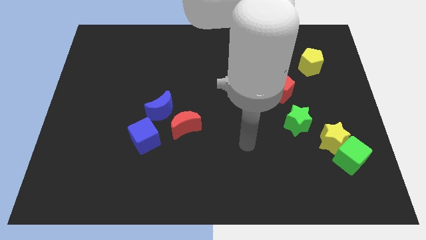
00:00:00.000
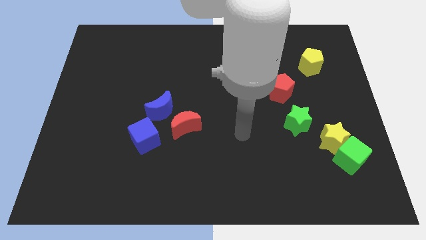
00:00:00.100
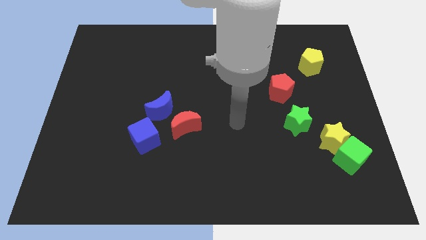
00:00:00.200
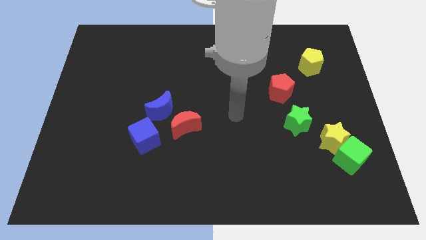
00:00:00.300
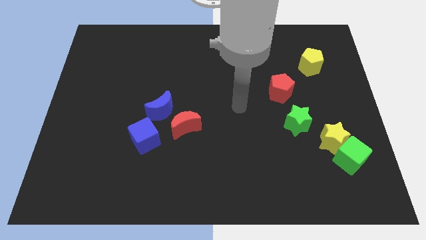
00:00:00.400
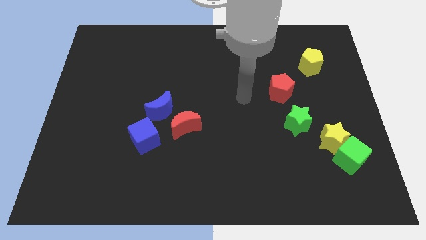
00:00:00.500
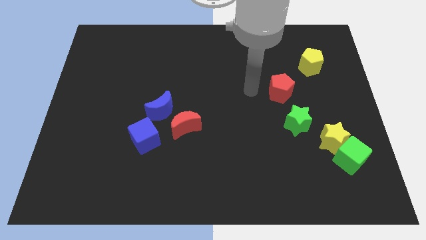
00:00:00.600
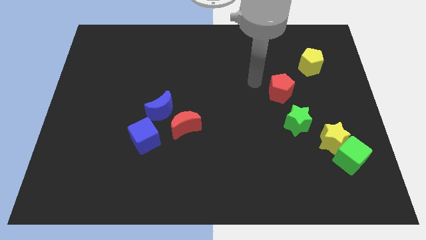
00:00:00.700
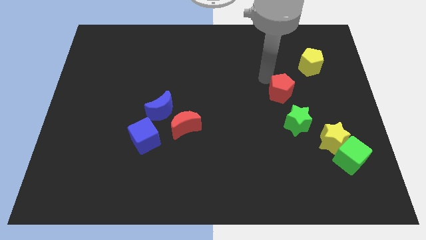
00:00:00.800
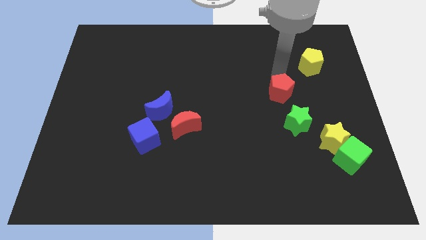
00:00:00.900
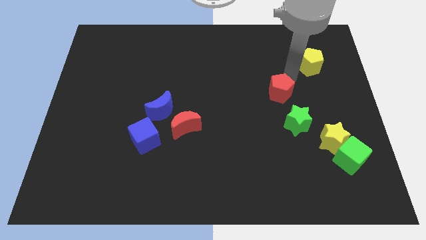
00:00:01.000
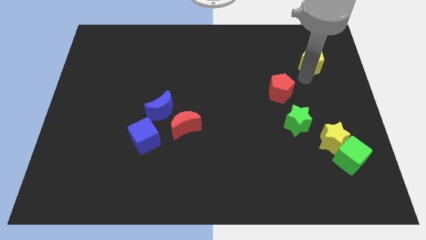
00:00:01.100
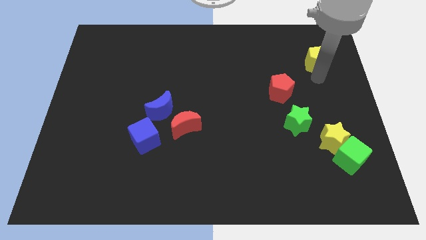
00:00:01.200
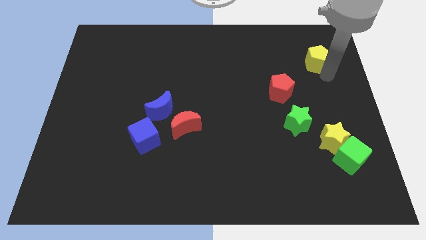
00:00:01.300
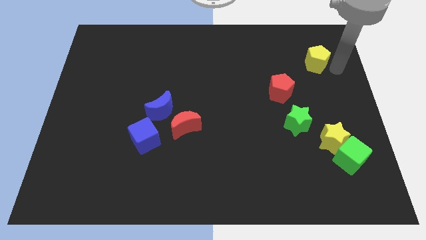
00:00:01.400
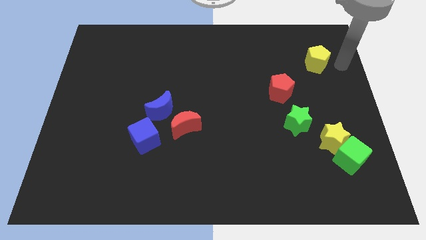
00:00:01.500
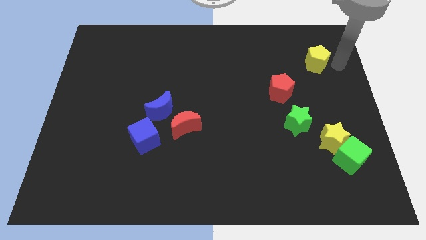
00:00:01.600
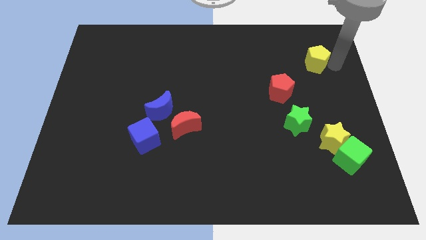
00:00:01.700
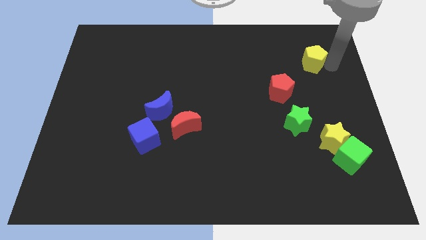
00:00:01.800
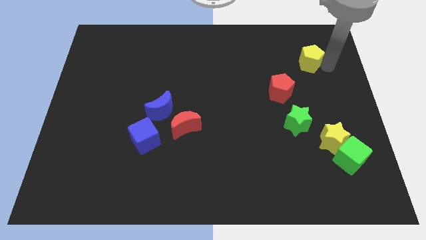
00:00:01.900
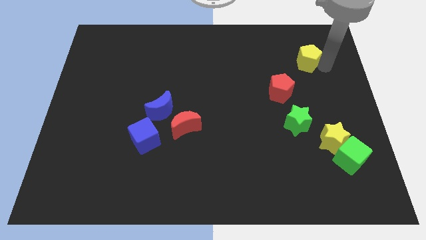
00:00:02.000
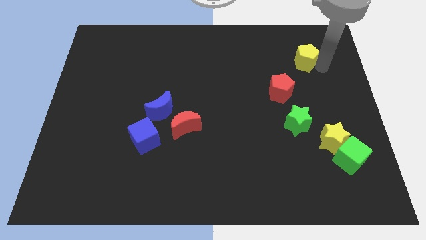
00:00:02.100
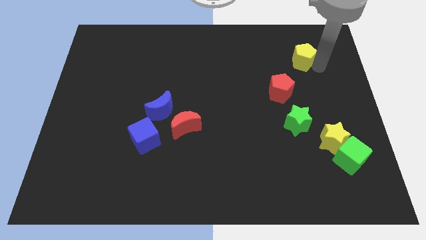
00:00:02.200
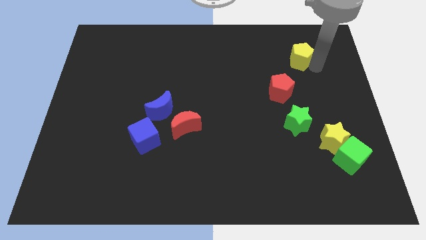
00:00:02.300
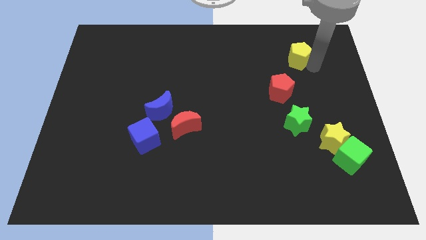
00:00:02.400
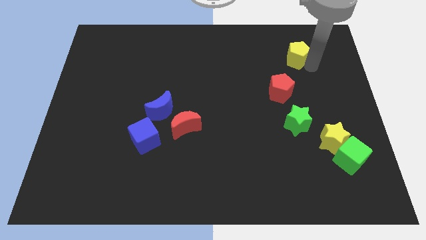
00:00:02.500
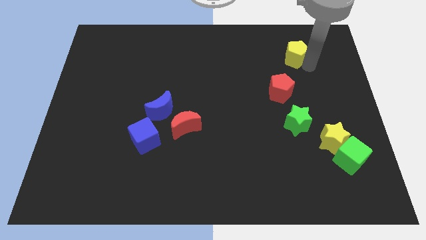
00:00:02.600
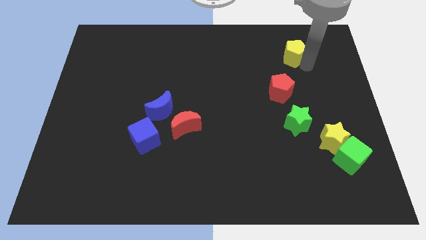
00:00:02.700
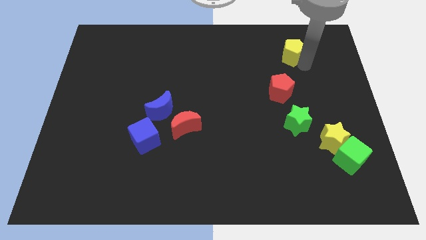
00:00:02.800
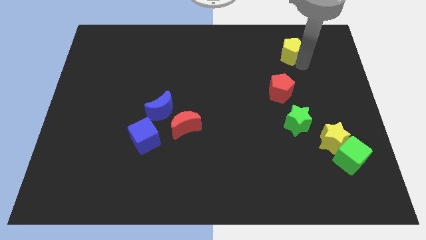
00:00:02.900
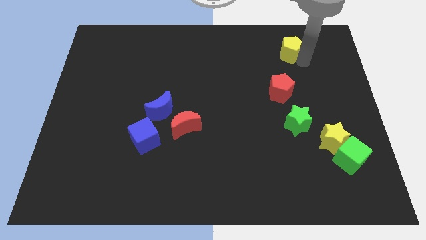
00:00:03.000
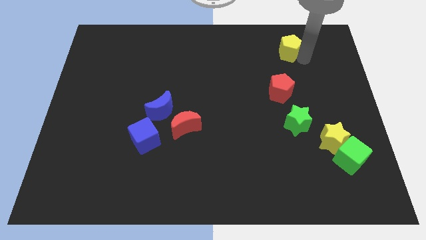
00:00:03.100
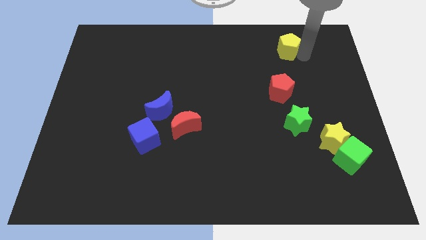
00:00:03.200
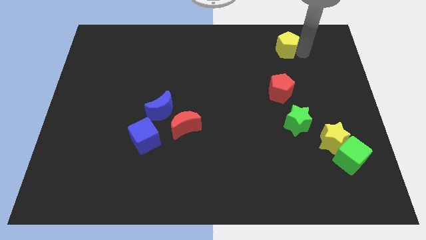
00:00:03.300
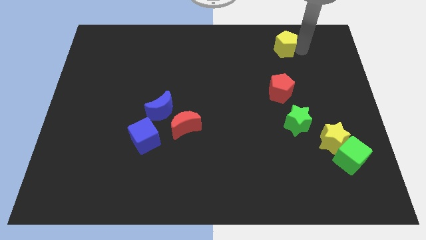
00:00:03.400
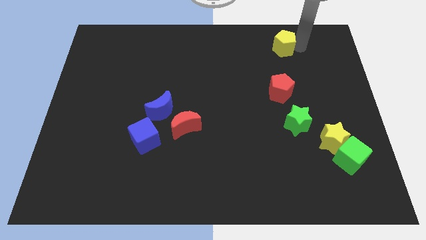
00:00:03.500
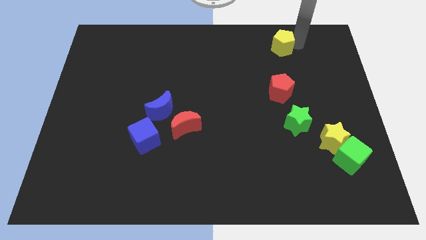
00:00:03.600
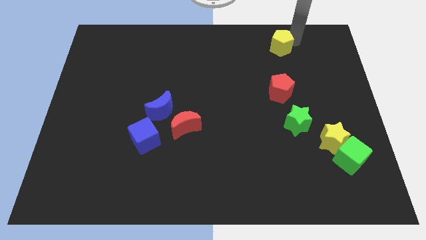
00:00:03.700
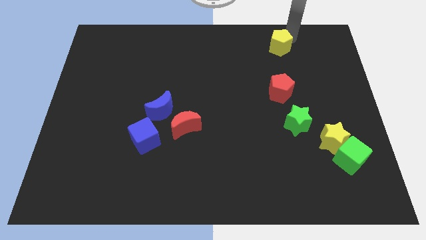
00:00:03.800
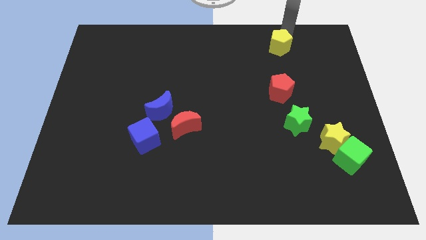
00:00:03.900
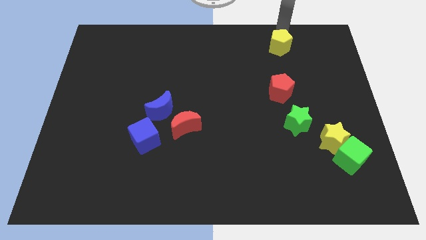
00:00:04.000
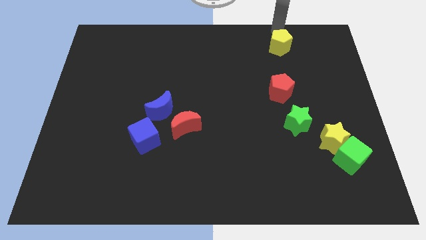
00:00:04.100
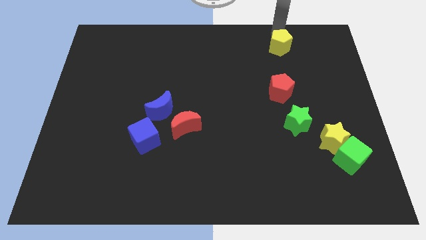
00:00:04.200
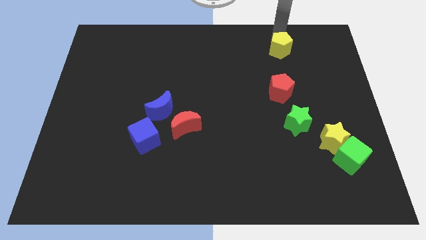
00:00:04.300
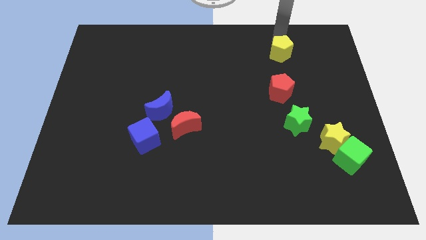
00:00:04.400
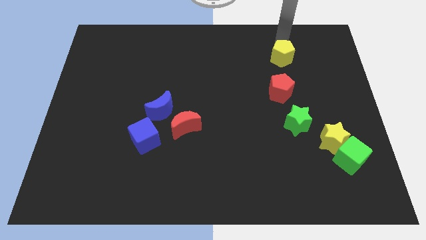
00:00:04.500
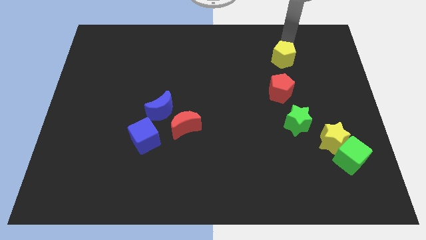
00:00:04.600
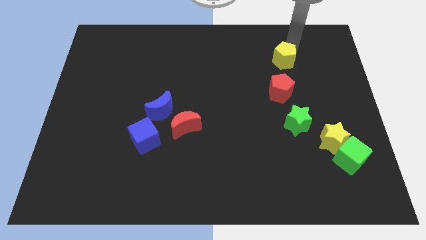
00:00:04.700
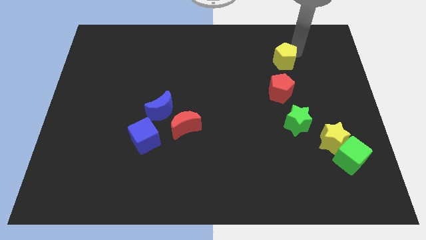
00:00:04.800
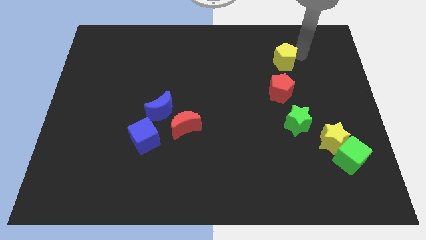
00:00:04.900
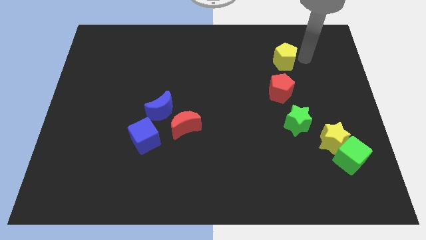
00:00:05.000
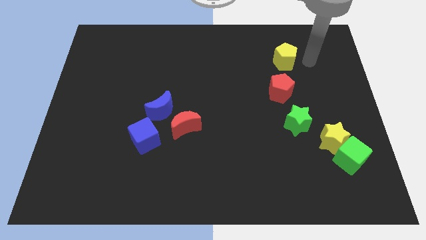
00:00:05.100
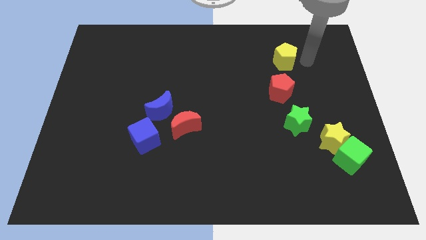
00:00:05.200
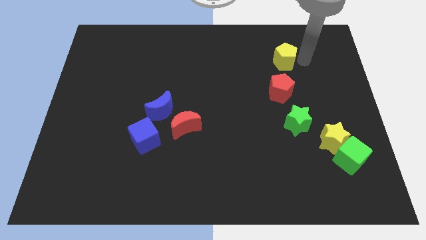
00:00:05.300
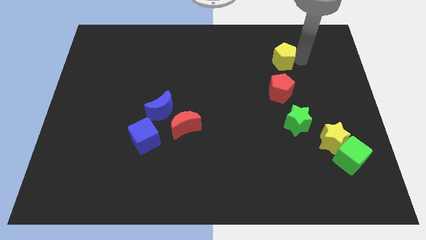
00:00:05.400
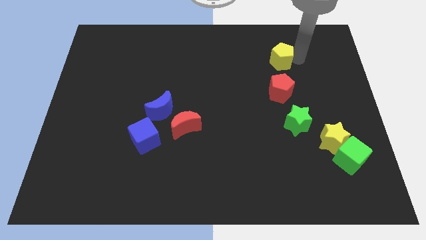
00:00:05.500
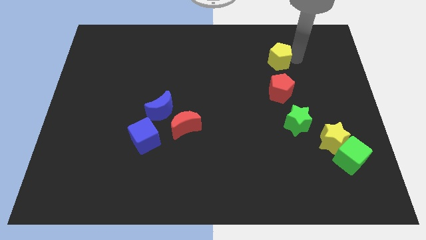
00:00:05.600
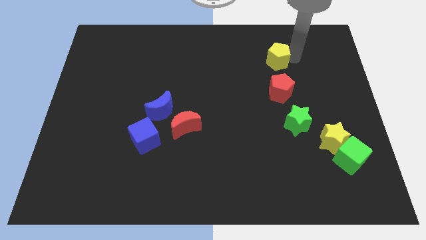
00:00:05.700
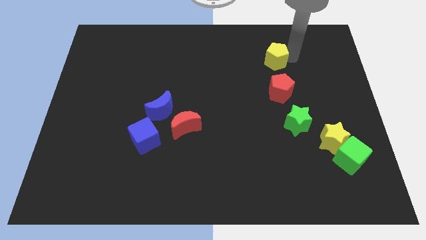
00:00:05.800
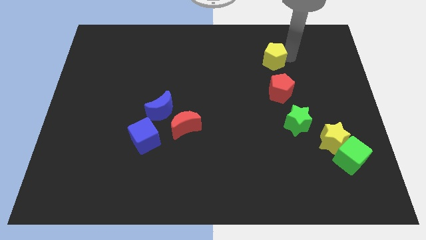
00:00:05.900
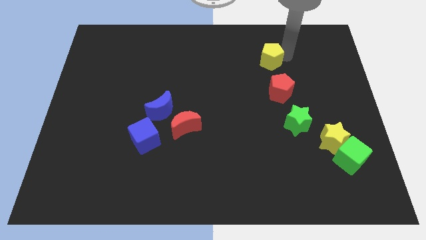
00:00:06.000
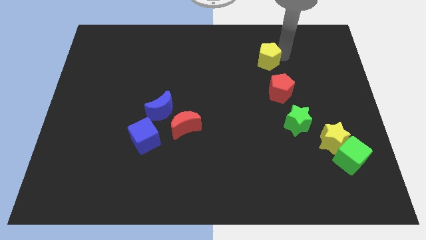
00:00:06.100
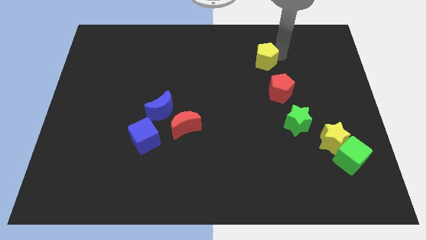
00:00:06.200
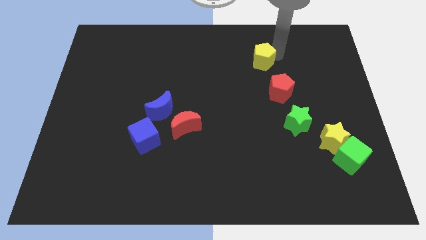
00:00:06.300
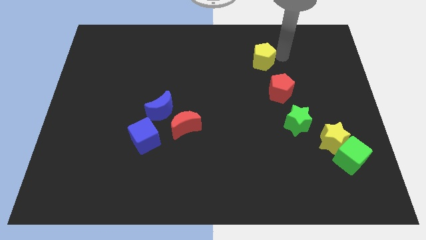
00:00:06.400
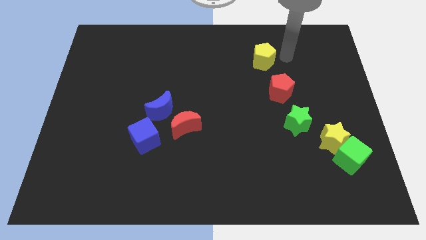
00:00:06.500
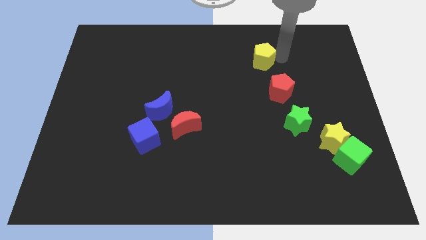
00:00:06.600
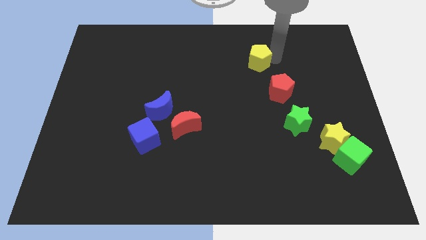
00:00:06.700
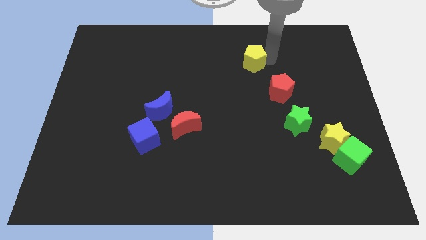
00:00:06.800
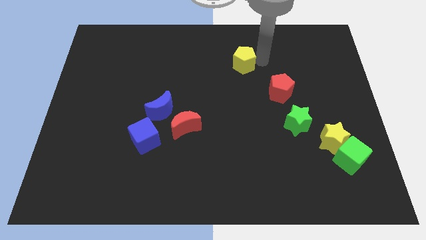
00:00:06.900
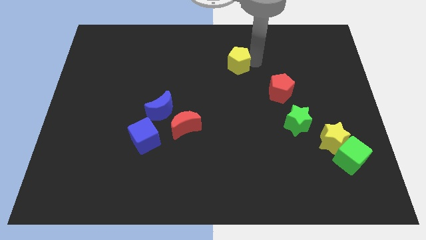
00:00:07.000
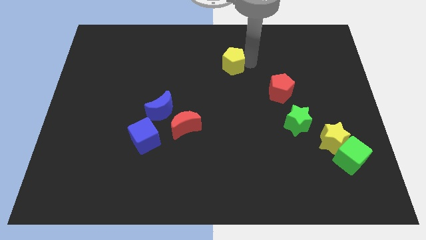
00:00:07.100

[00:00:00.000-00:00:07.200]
slide the yellow pentagon to the left

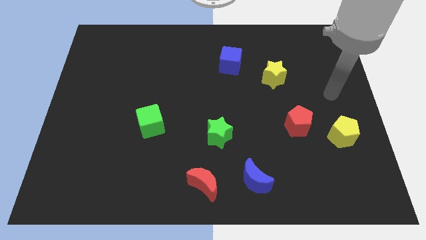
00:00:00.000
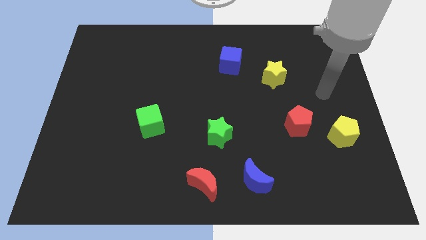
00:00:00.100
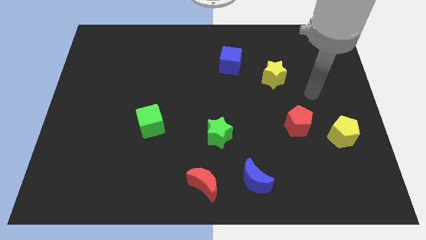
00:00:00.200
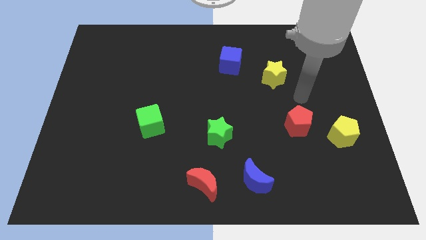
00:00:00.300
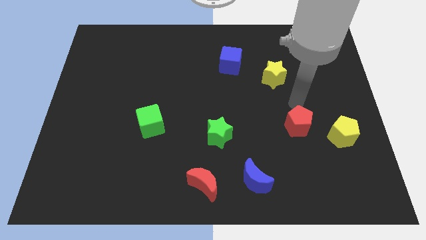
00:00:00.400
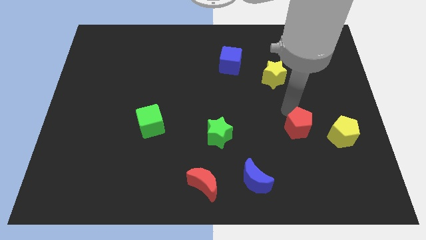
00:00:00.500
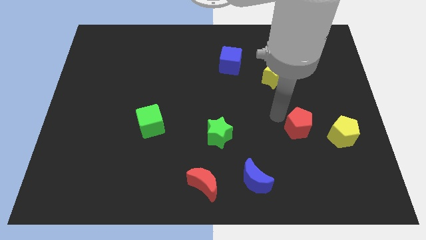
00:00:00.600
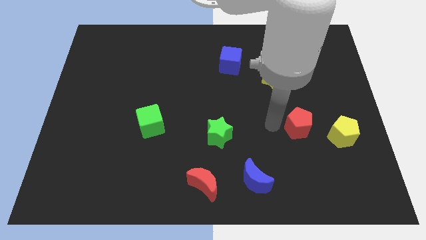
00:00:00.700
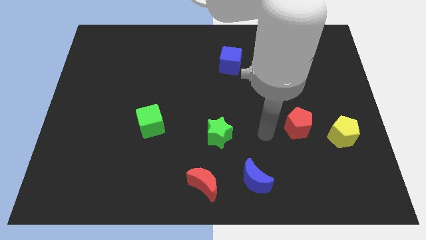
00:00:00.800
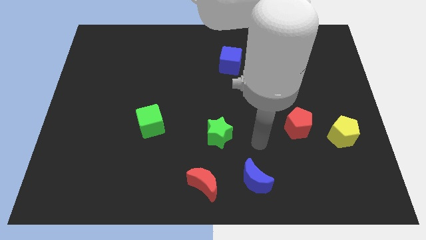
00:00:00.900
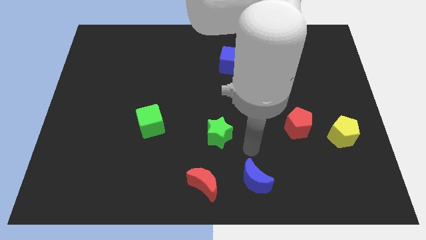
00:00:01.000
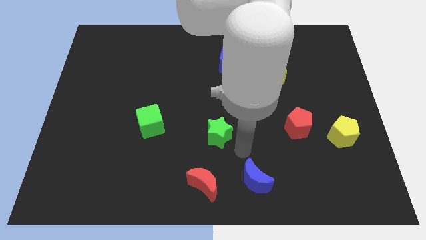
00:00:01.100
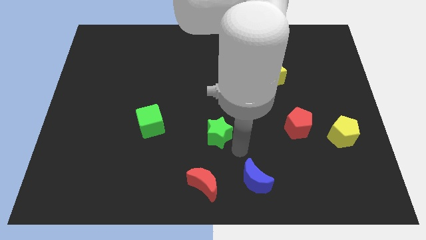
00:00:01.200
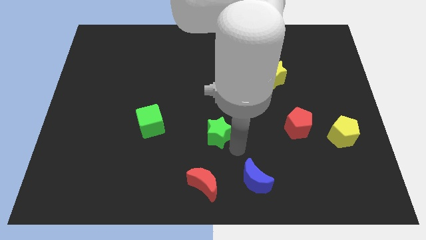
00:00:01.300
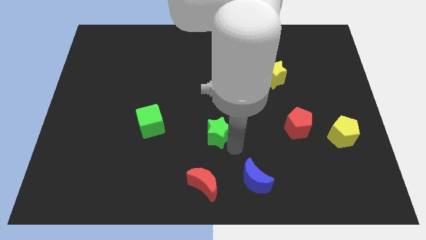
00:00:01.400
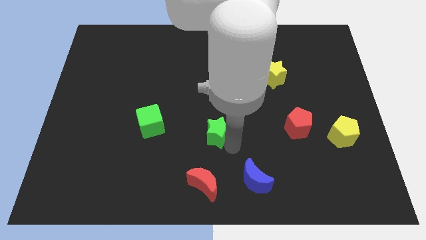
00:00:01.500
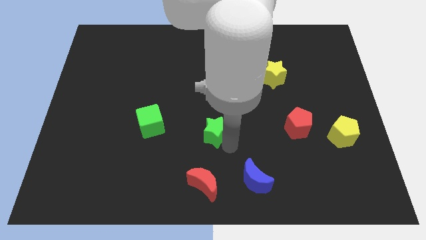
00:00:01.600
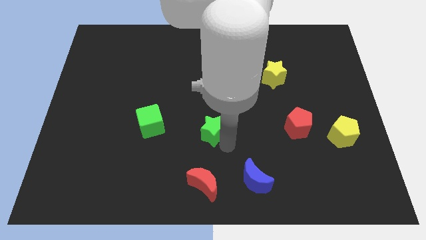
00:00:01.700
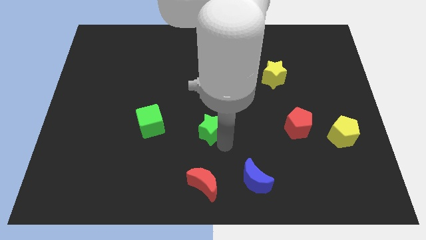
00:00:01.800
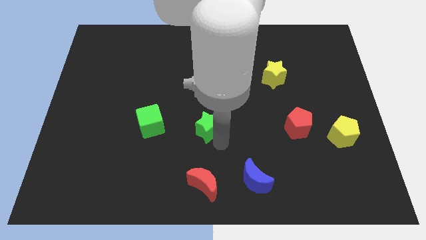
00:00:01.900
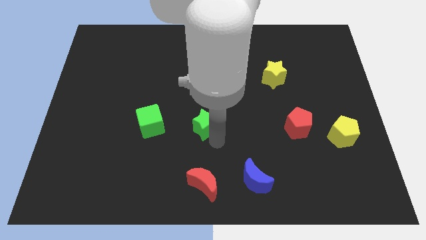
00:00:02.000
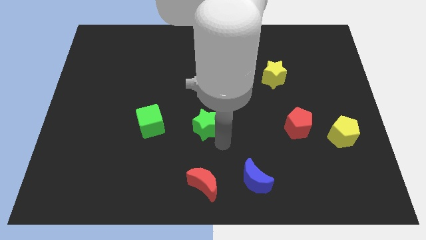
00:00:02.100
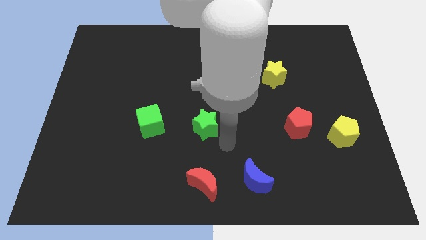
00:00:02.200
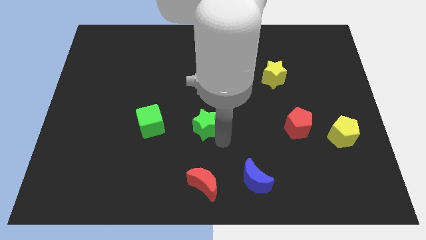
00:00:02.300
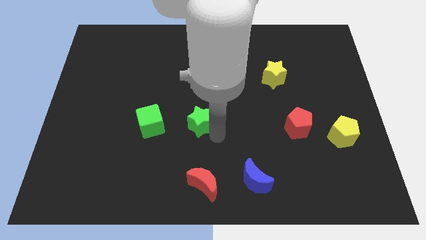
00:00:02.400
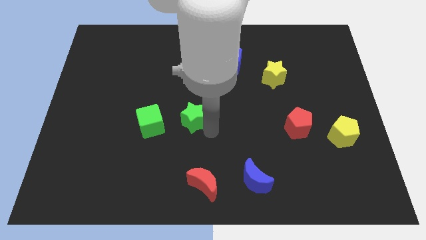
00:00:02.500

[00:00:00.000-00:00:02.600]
slightly move the green star up and to the left diagonally
